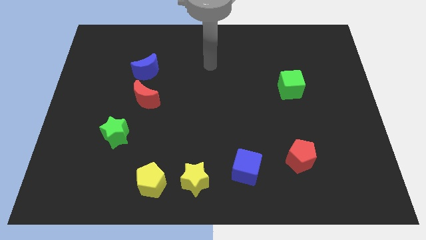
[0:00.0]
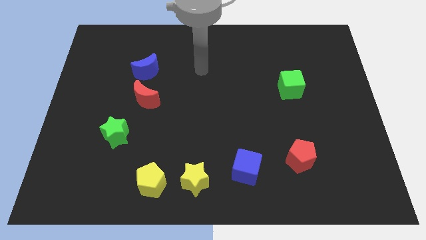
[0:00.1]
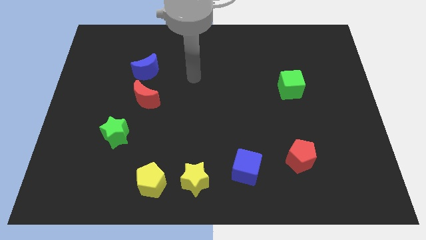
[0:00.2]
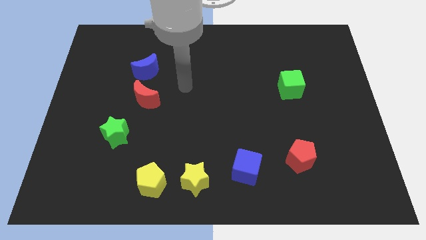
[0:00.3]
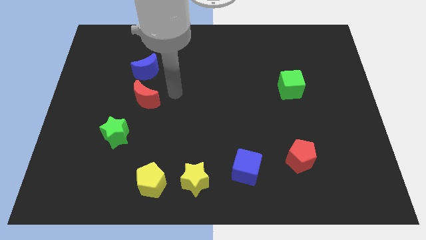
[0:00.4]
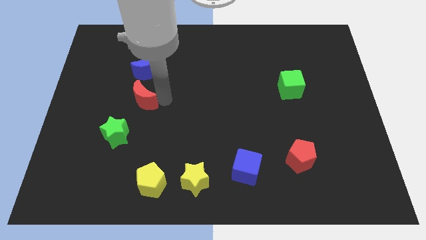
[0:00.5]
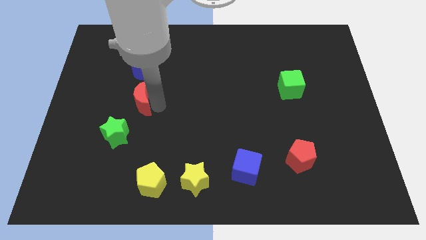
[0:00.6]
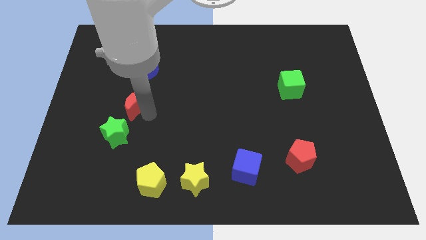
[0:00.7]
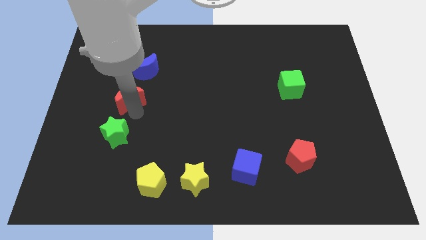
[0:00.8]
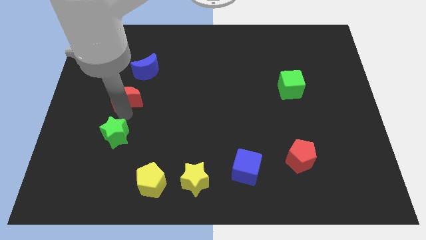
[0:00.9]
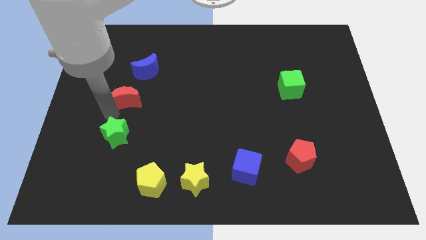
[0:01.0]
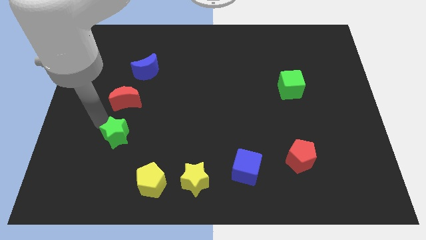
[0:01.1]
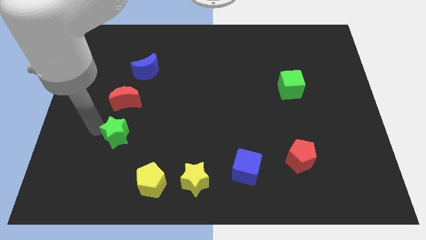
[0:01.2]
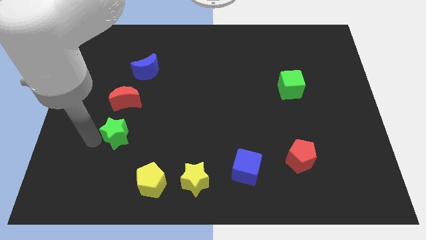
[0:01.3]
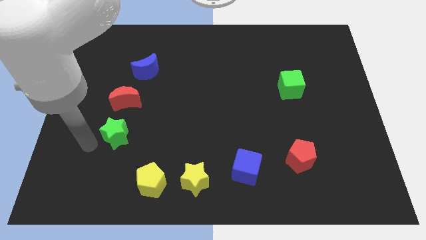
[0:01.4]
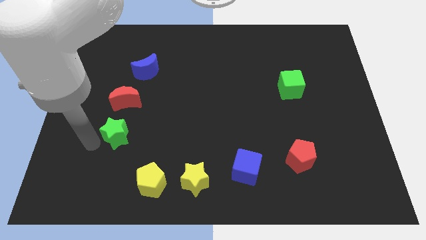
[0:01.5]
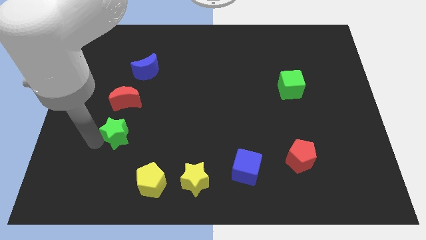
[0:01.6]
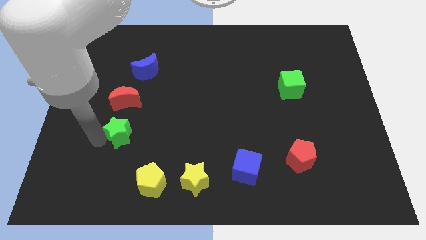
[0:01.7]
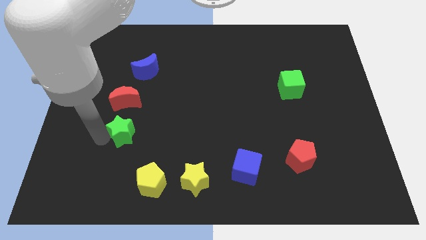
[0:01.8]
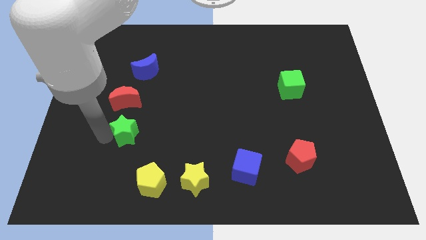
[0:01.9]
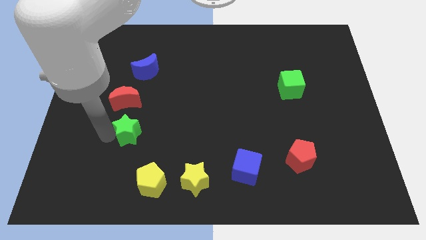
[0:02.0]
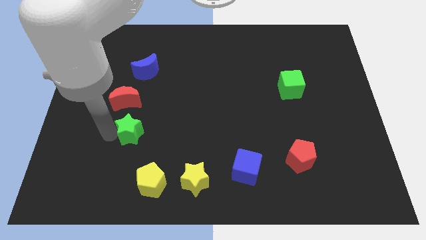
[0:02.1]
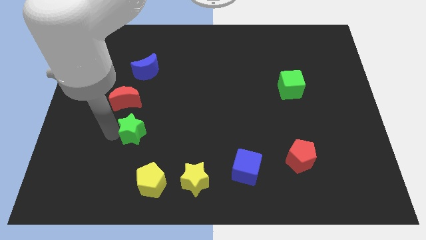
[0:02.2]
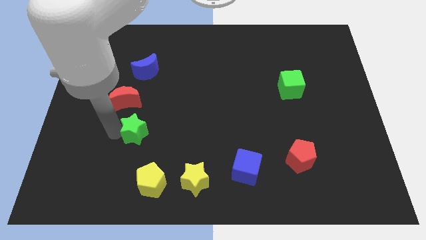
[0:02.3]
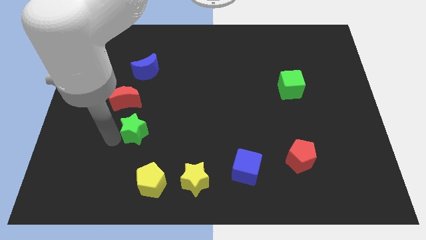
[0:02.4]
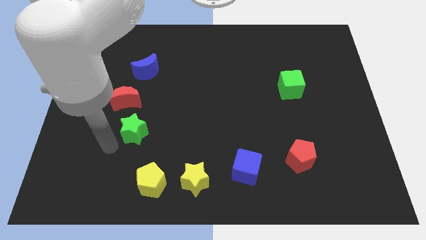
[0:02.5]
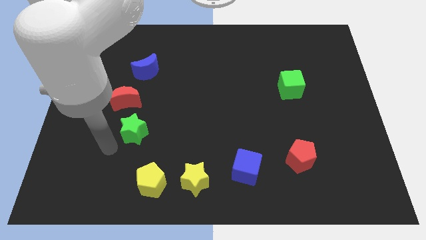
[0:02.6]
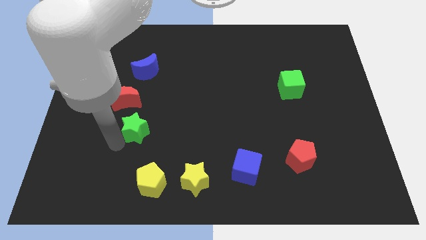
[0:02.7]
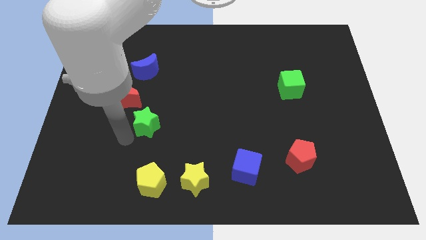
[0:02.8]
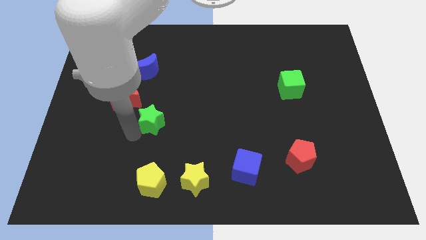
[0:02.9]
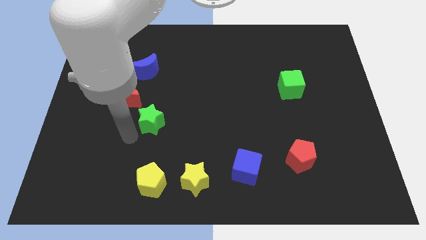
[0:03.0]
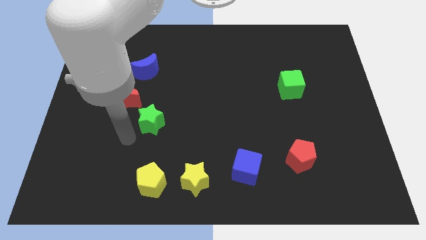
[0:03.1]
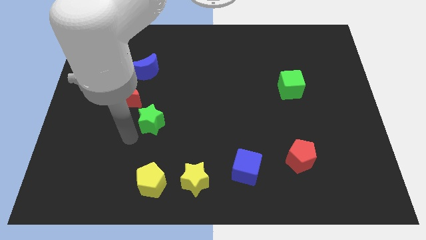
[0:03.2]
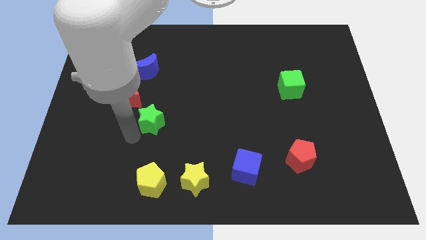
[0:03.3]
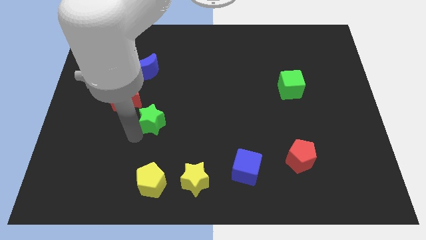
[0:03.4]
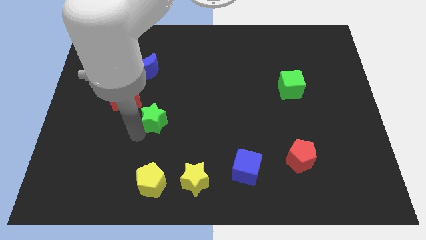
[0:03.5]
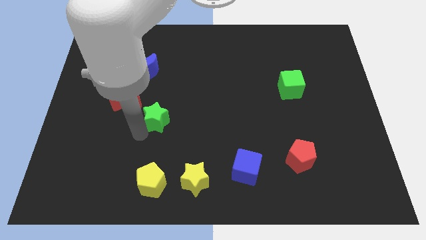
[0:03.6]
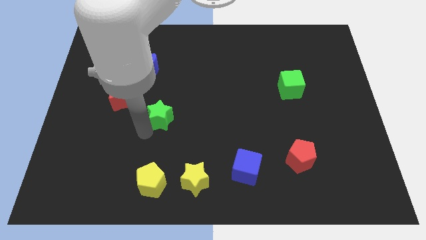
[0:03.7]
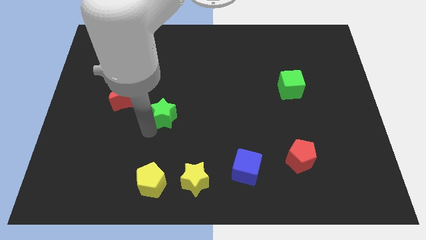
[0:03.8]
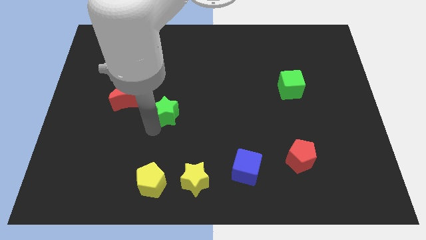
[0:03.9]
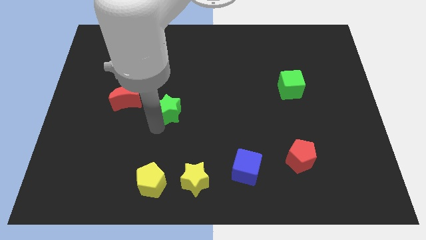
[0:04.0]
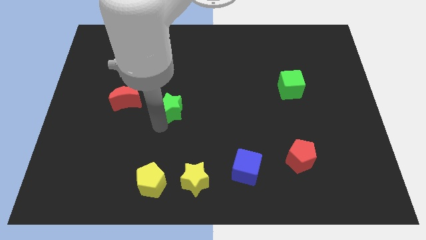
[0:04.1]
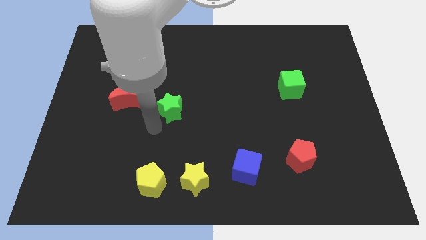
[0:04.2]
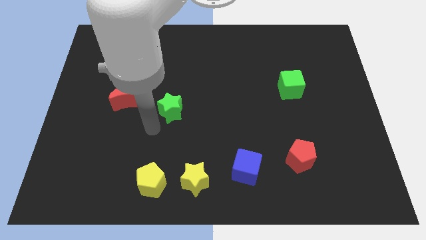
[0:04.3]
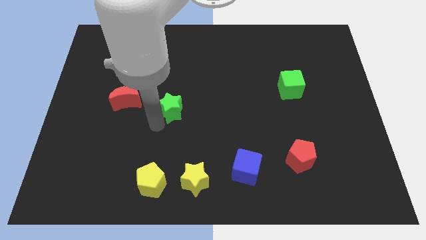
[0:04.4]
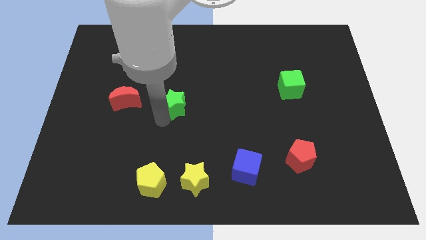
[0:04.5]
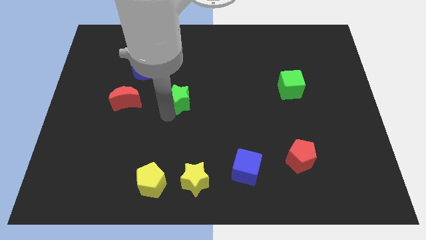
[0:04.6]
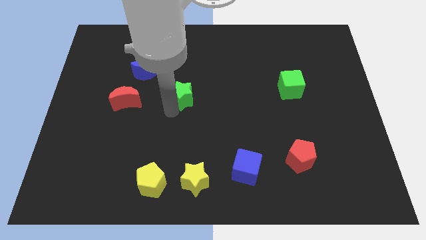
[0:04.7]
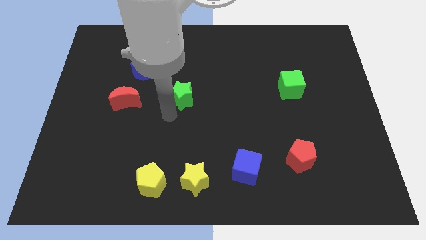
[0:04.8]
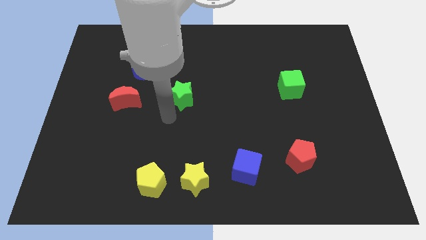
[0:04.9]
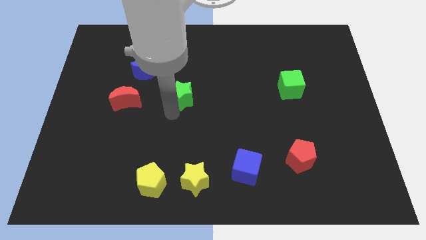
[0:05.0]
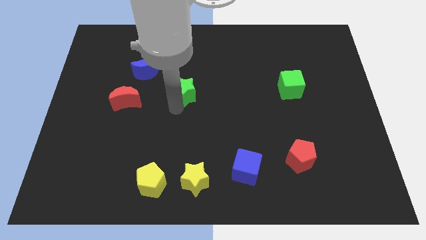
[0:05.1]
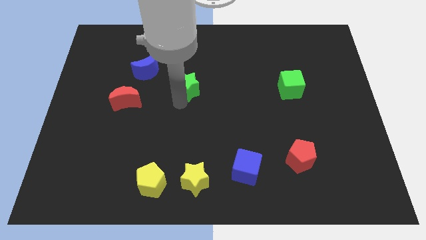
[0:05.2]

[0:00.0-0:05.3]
move the green star up and then to the right

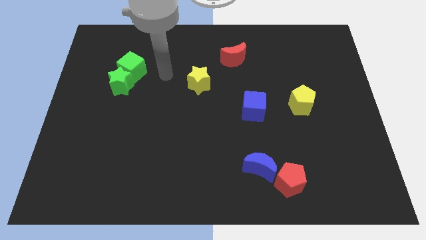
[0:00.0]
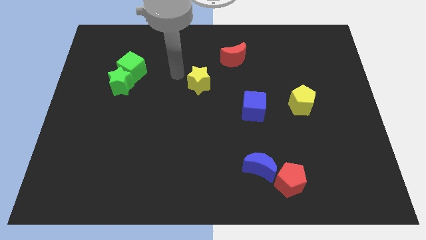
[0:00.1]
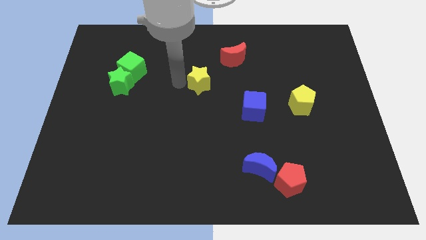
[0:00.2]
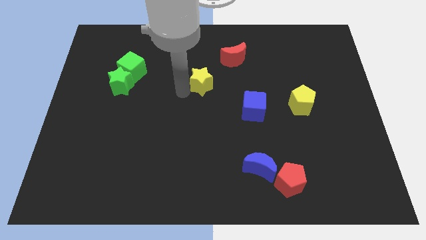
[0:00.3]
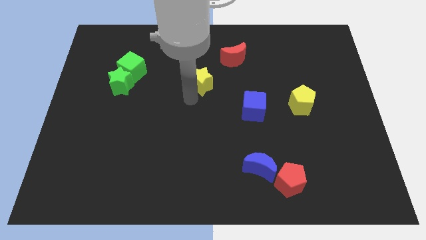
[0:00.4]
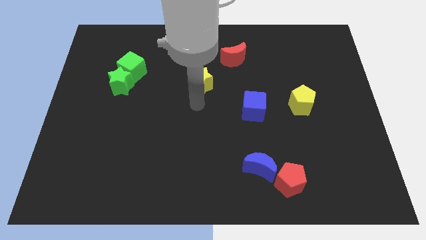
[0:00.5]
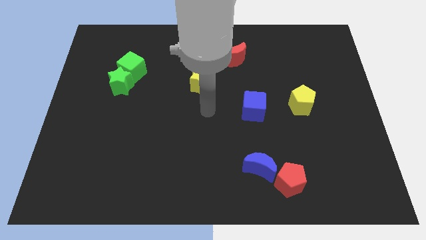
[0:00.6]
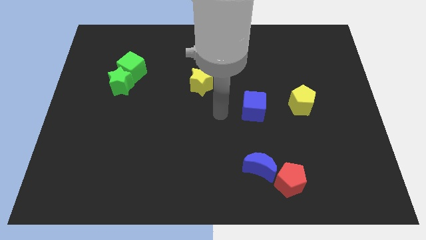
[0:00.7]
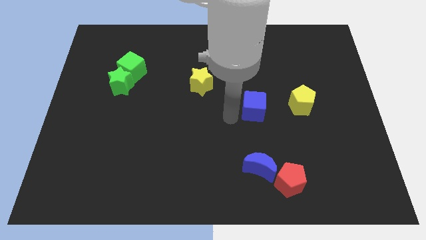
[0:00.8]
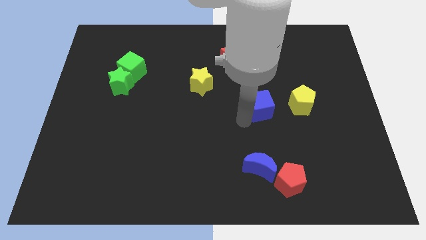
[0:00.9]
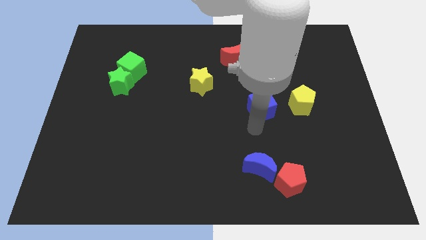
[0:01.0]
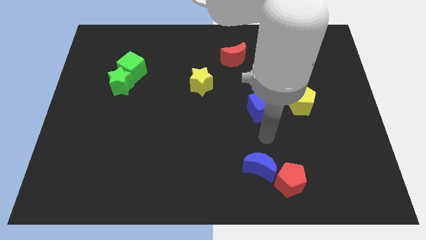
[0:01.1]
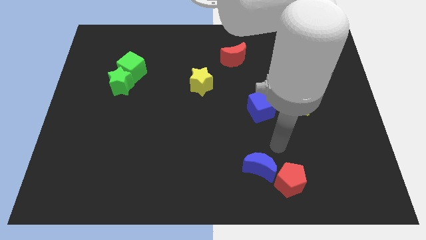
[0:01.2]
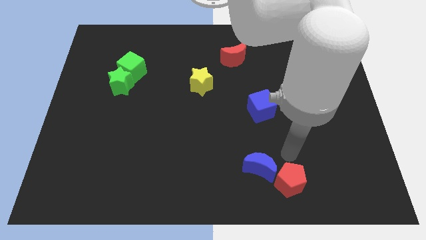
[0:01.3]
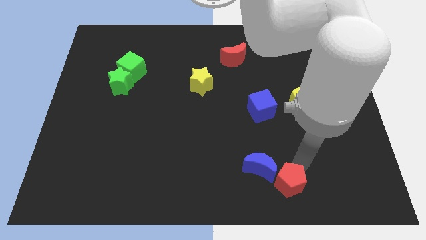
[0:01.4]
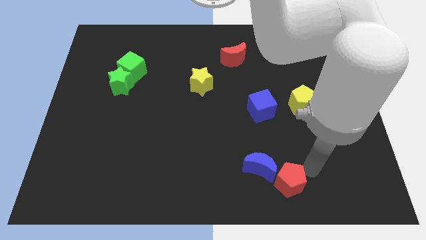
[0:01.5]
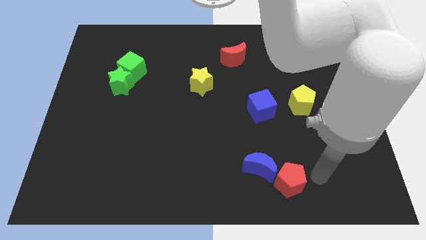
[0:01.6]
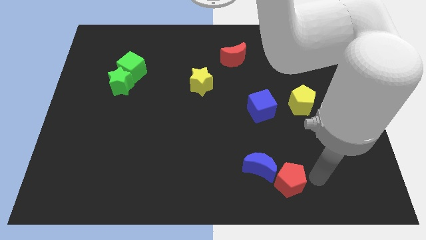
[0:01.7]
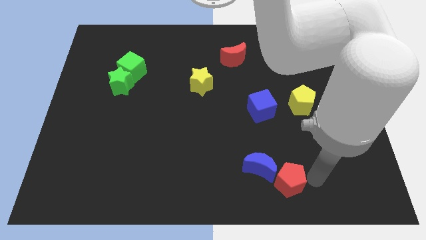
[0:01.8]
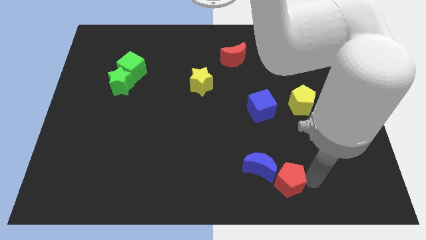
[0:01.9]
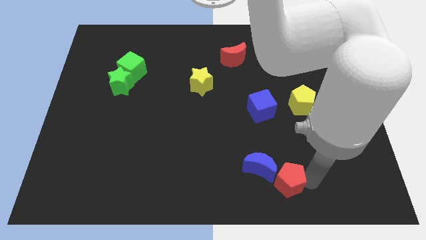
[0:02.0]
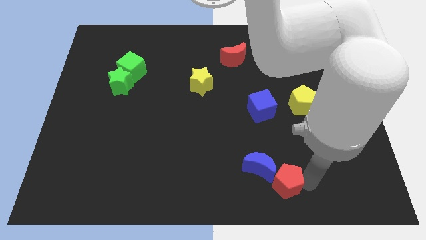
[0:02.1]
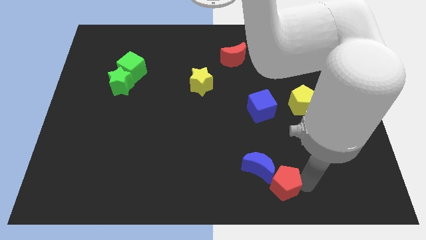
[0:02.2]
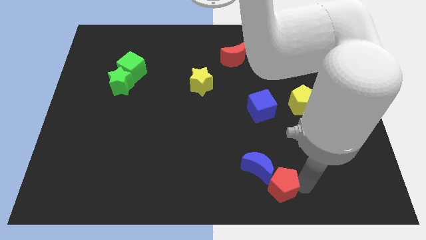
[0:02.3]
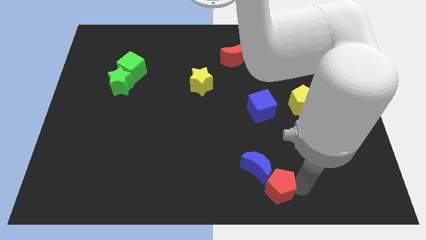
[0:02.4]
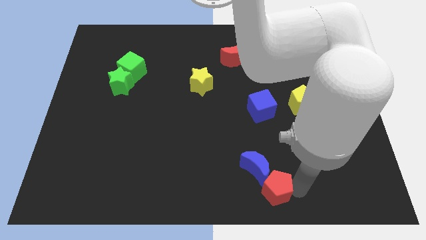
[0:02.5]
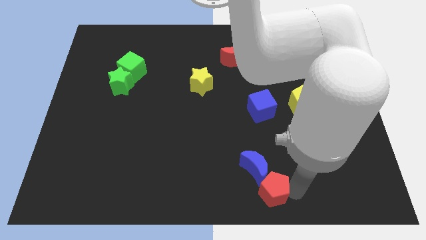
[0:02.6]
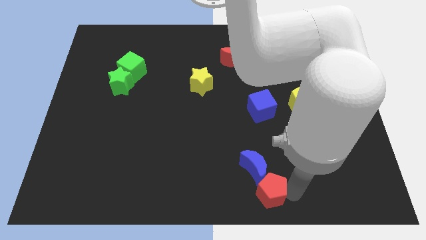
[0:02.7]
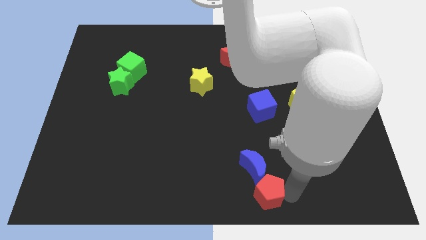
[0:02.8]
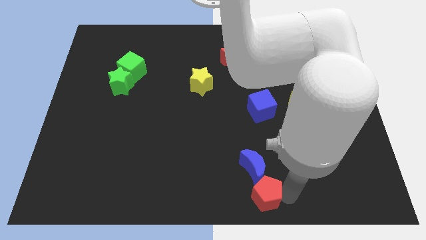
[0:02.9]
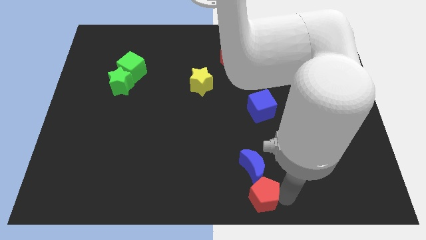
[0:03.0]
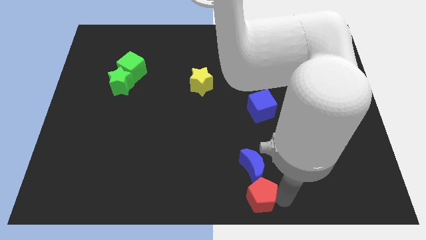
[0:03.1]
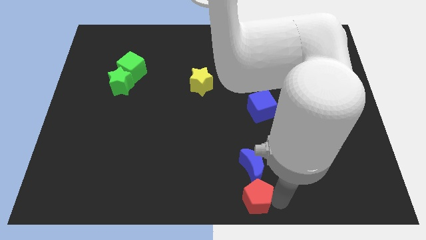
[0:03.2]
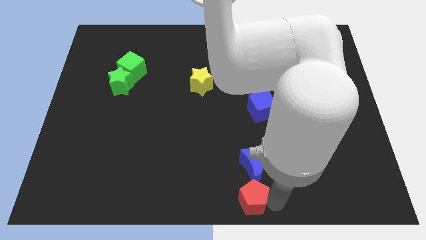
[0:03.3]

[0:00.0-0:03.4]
slightly move the red pentagon to the left
